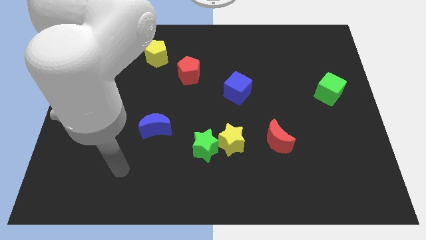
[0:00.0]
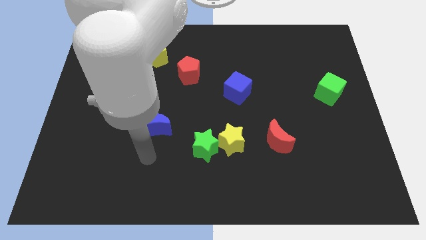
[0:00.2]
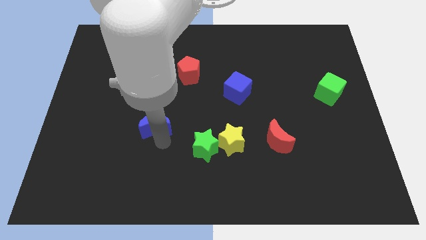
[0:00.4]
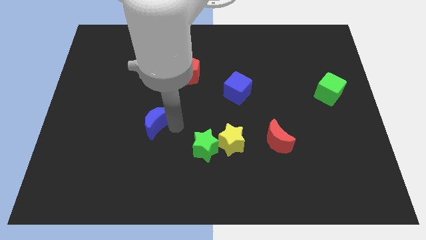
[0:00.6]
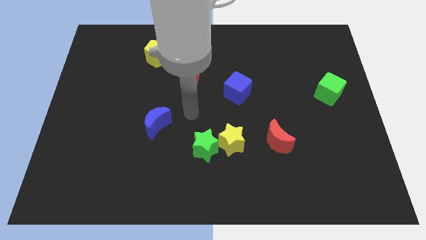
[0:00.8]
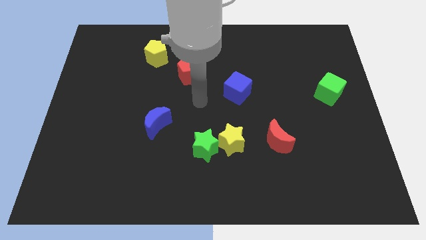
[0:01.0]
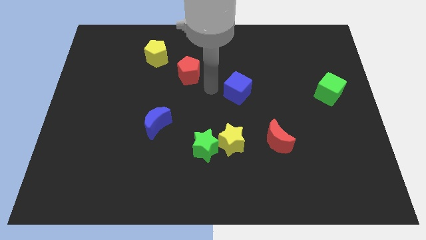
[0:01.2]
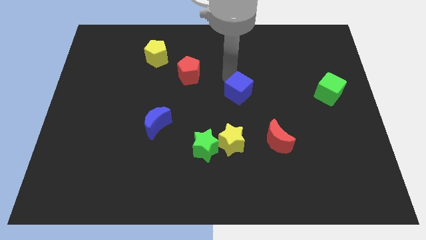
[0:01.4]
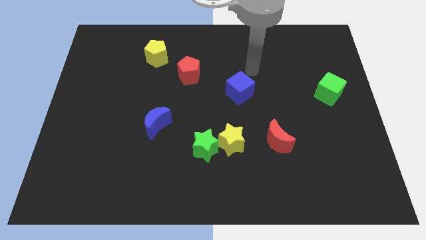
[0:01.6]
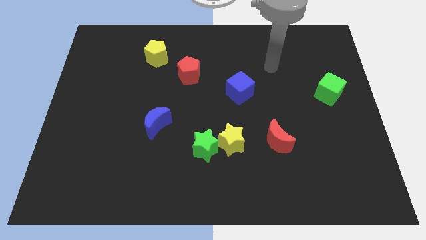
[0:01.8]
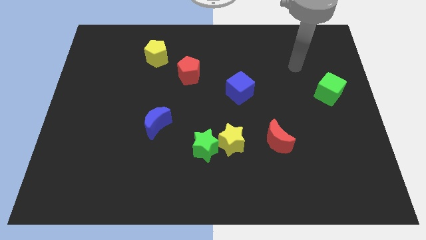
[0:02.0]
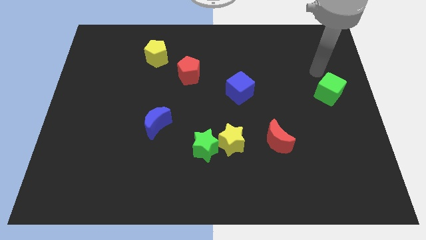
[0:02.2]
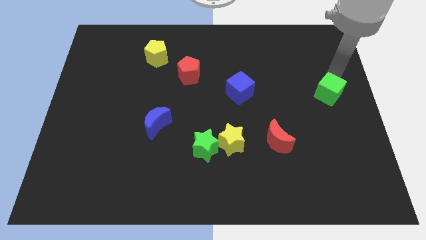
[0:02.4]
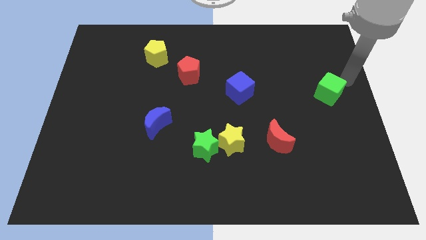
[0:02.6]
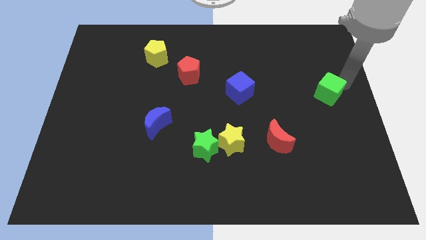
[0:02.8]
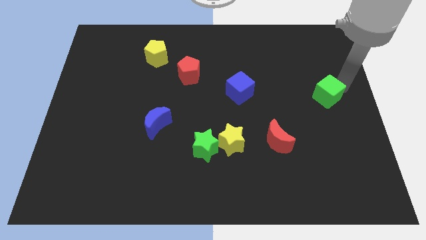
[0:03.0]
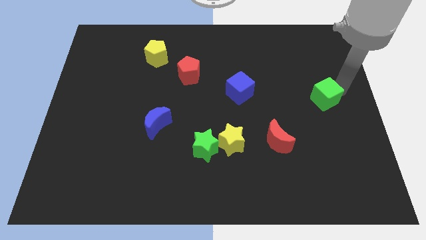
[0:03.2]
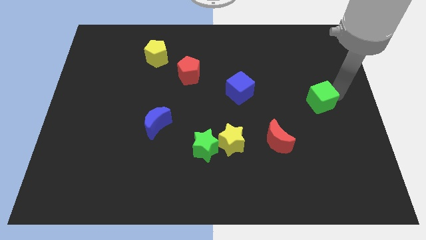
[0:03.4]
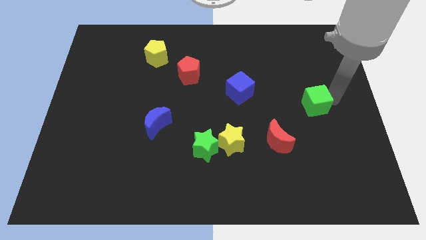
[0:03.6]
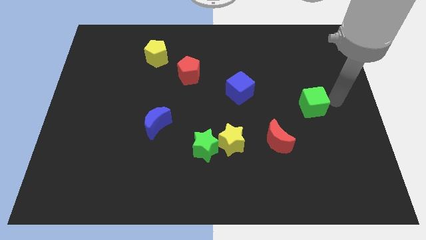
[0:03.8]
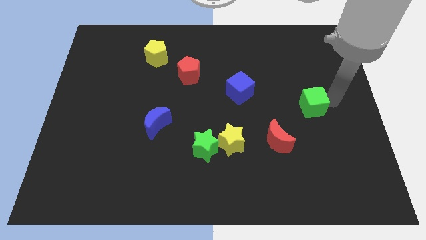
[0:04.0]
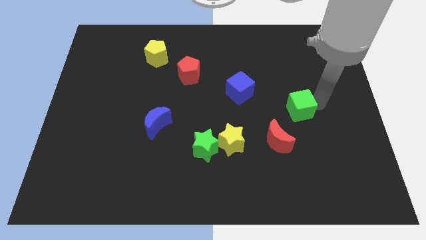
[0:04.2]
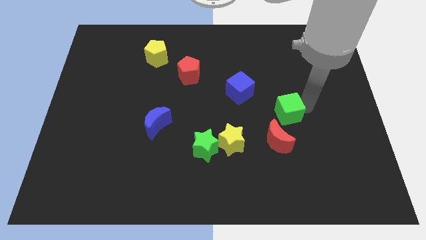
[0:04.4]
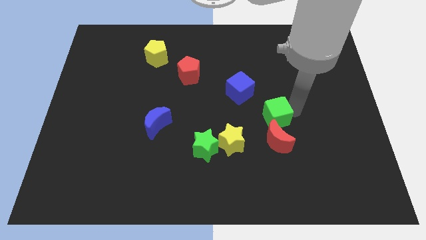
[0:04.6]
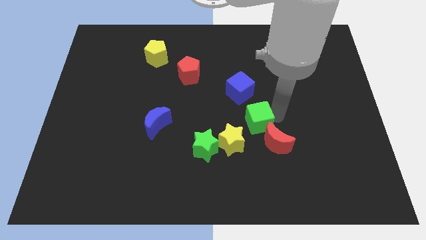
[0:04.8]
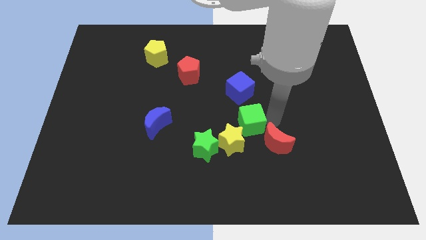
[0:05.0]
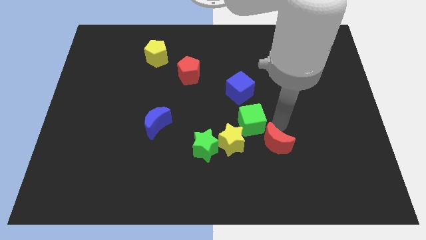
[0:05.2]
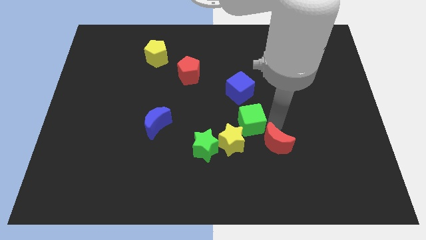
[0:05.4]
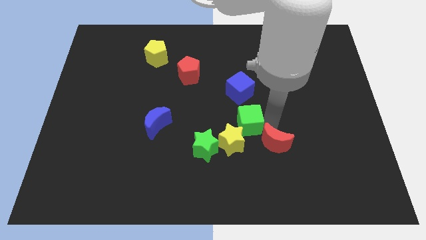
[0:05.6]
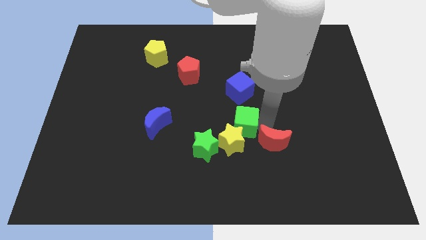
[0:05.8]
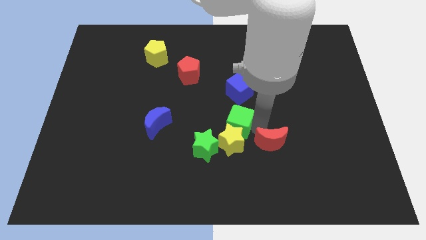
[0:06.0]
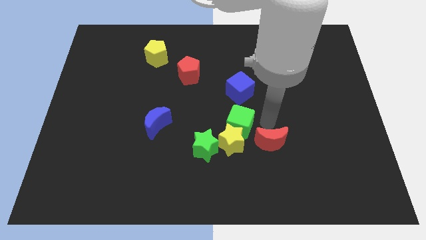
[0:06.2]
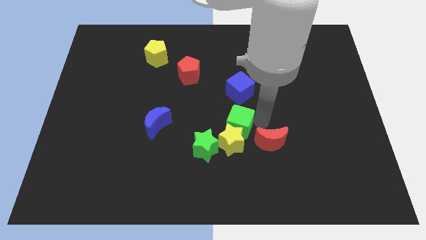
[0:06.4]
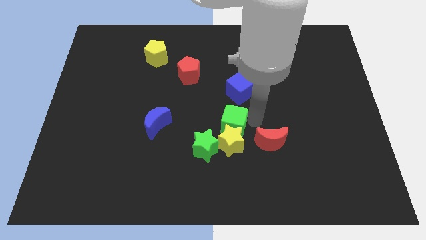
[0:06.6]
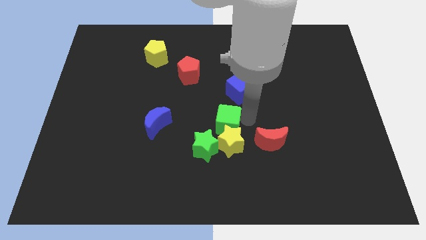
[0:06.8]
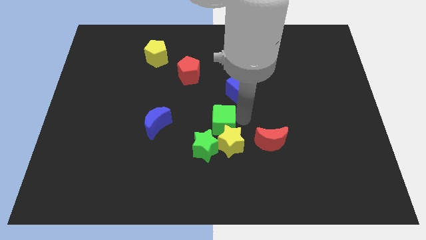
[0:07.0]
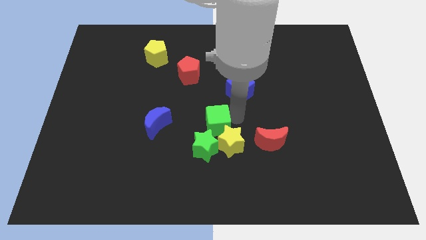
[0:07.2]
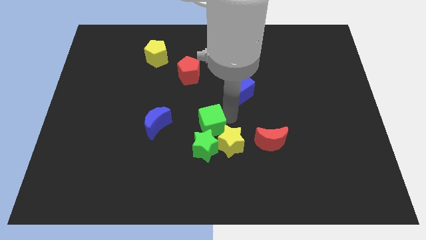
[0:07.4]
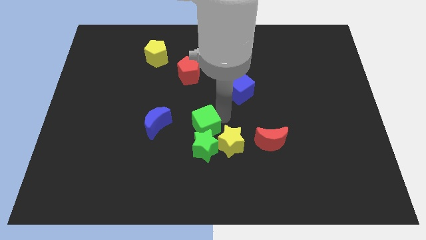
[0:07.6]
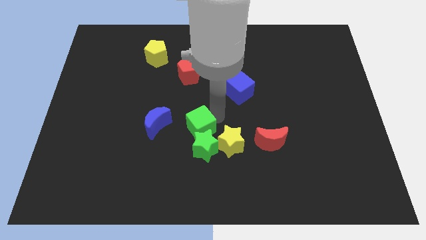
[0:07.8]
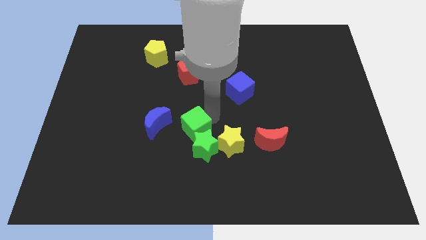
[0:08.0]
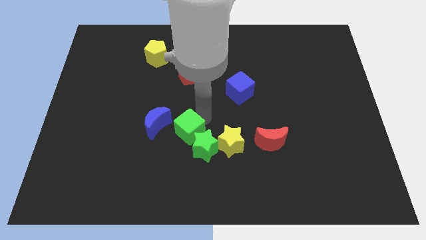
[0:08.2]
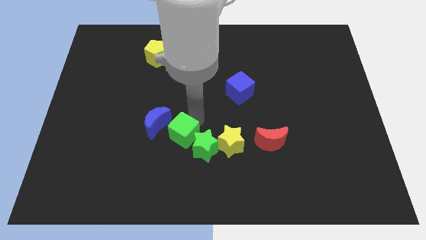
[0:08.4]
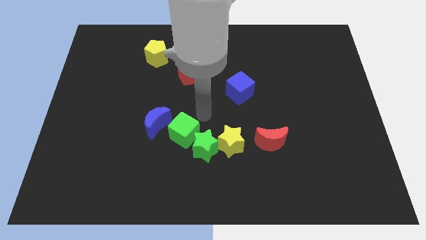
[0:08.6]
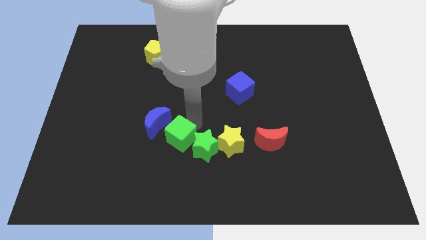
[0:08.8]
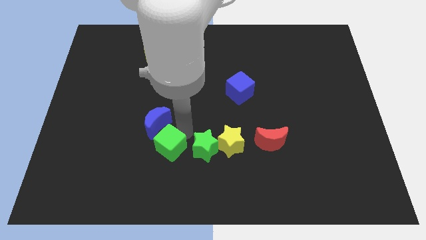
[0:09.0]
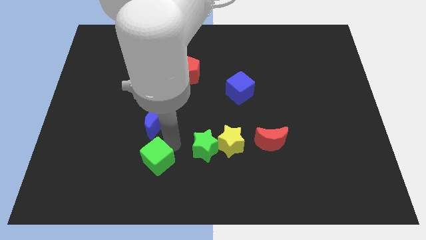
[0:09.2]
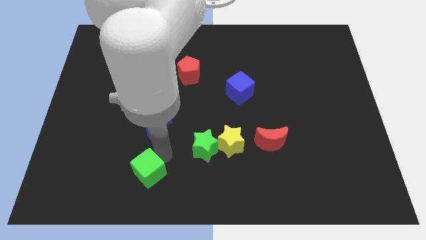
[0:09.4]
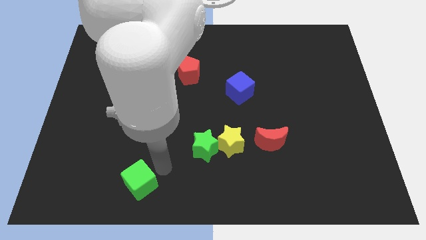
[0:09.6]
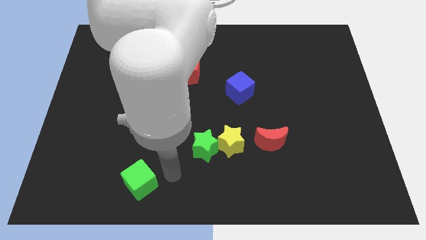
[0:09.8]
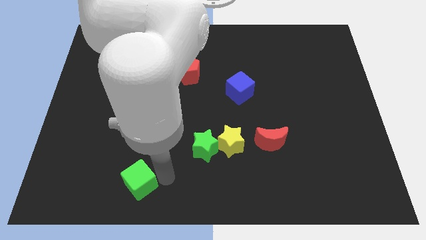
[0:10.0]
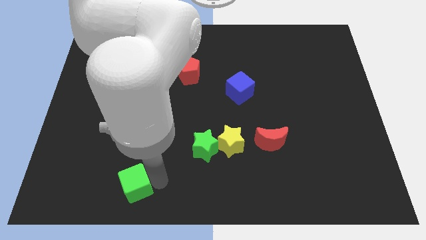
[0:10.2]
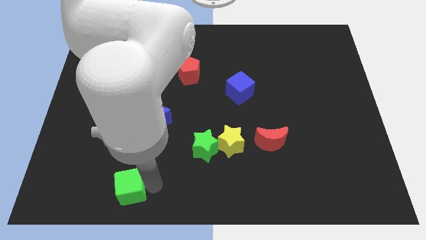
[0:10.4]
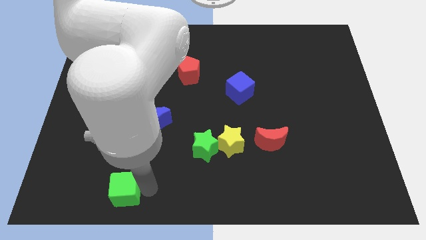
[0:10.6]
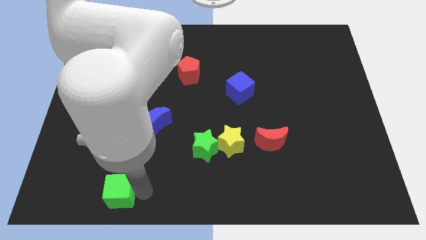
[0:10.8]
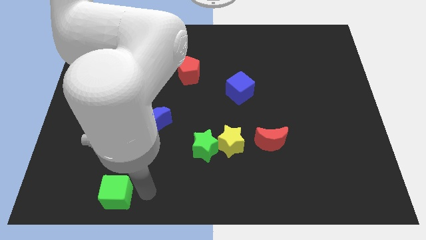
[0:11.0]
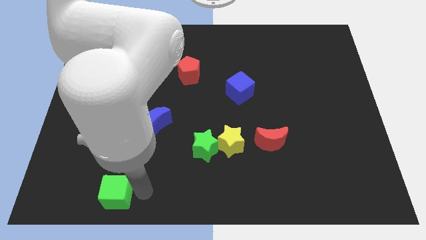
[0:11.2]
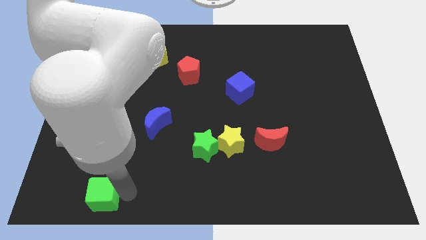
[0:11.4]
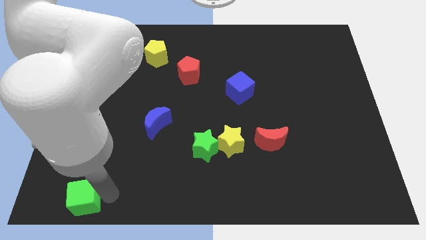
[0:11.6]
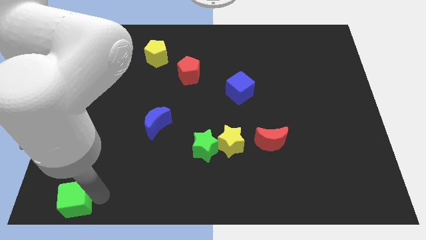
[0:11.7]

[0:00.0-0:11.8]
push the green cube to the bottom left

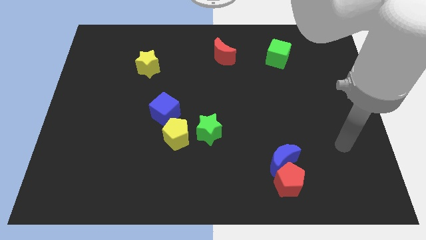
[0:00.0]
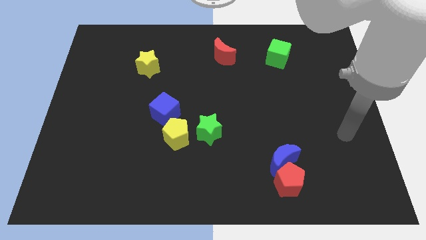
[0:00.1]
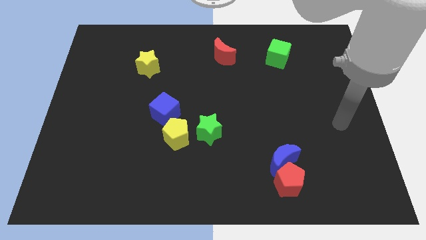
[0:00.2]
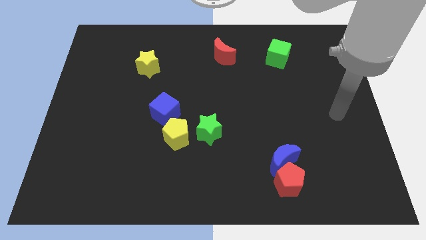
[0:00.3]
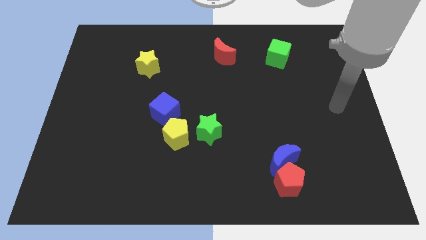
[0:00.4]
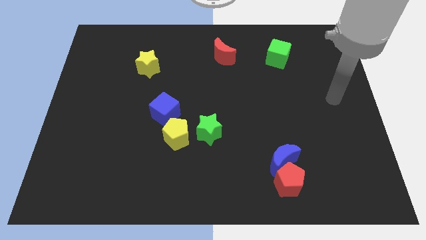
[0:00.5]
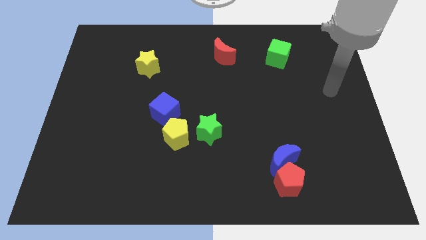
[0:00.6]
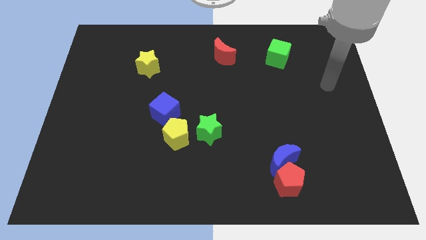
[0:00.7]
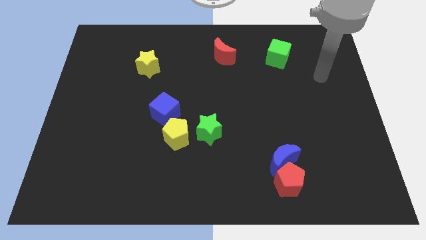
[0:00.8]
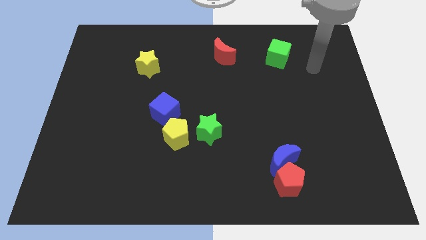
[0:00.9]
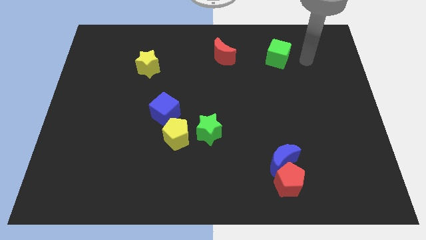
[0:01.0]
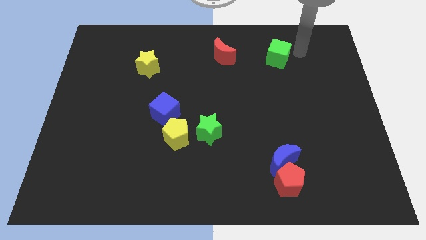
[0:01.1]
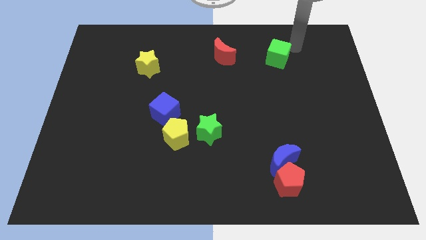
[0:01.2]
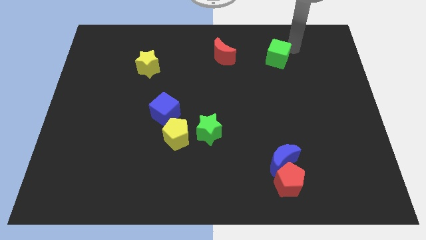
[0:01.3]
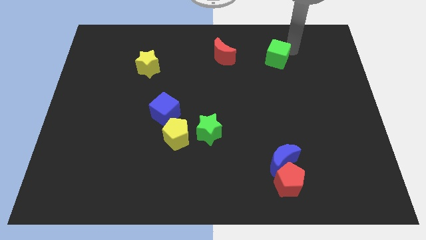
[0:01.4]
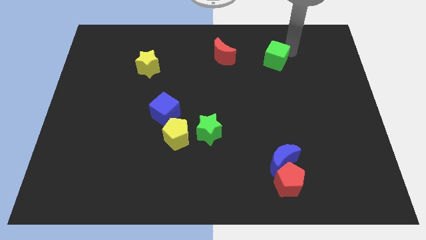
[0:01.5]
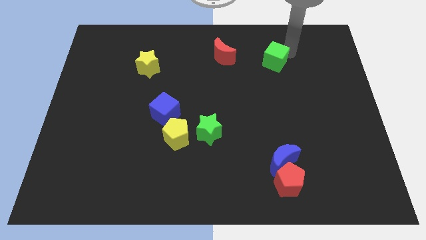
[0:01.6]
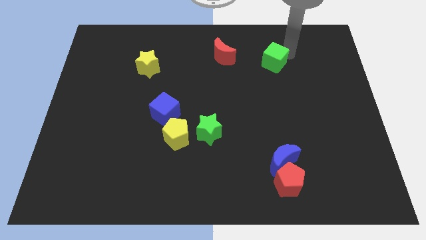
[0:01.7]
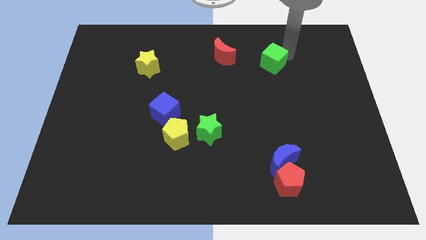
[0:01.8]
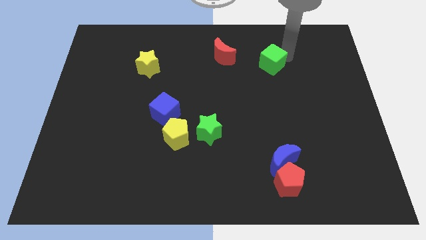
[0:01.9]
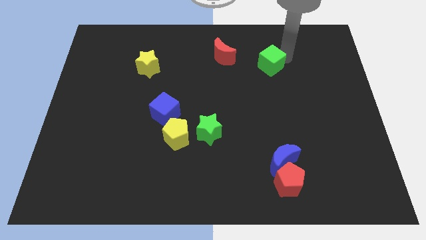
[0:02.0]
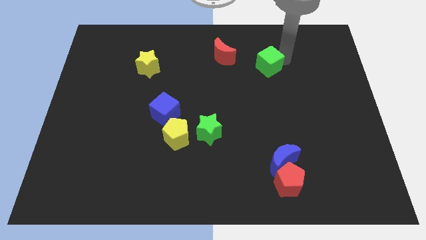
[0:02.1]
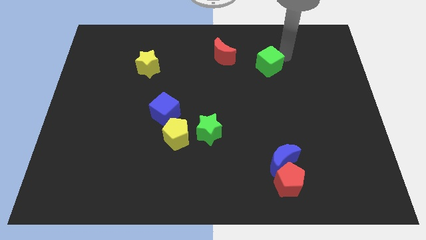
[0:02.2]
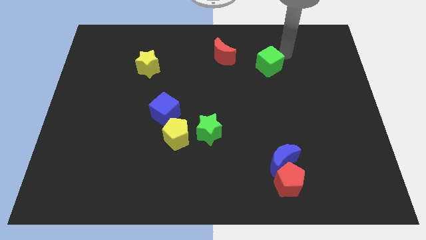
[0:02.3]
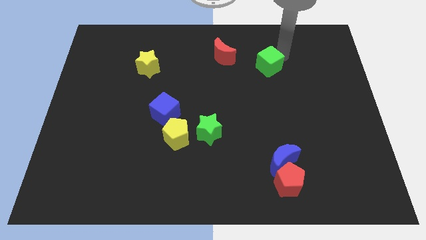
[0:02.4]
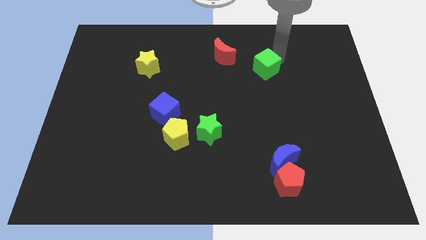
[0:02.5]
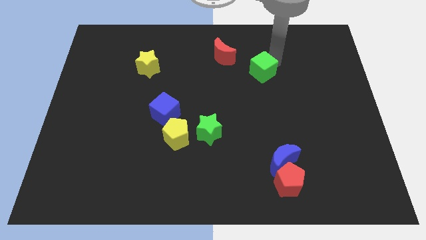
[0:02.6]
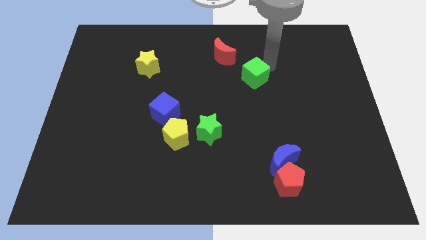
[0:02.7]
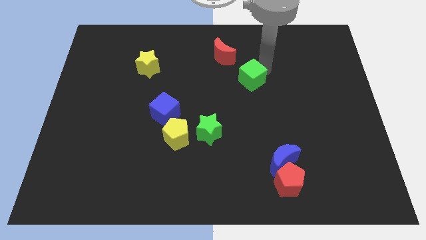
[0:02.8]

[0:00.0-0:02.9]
slide the green cube to the middle of the board
